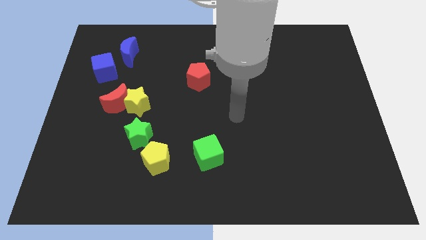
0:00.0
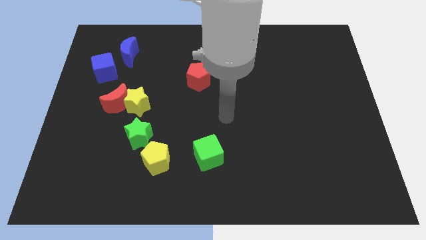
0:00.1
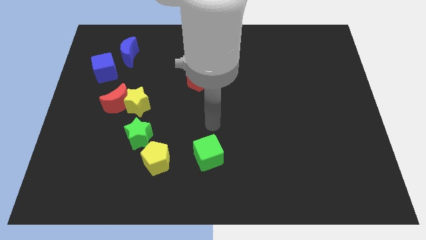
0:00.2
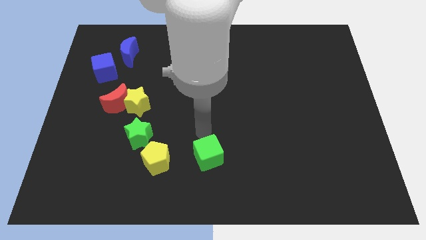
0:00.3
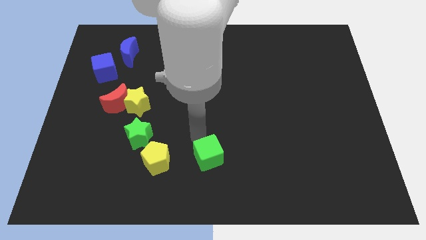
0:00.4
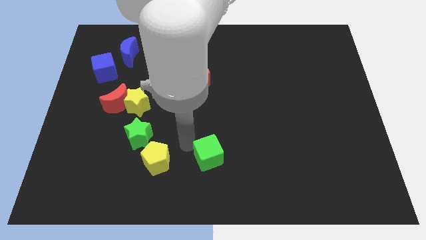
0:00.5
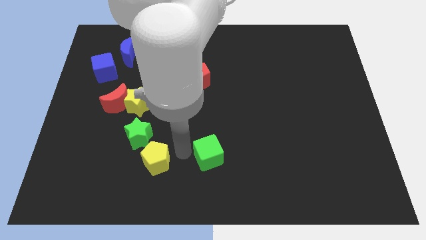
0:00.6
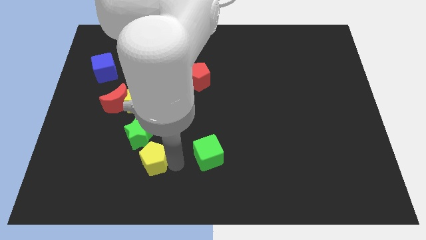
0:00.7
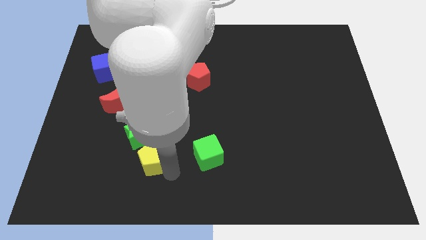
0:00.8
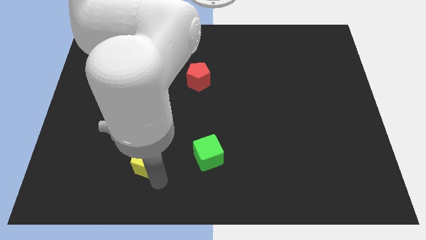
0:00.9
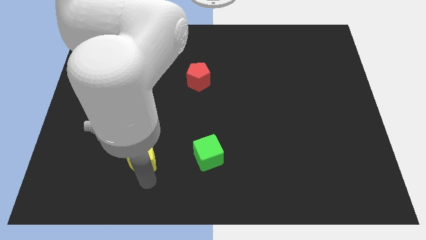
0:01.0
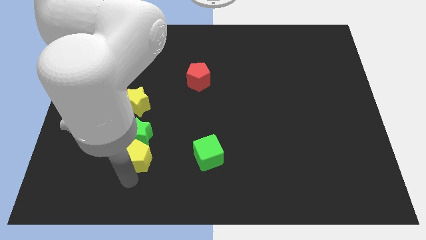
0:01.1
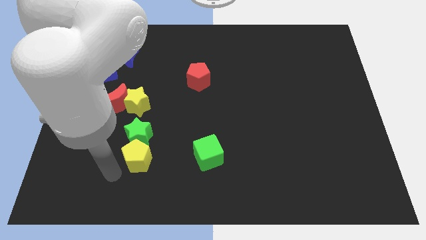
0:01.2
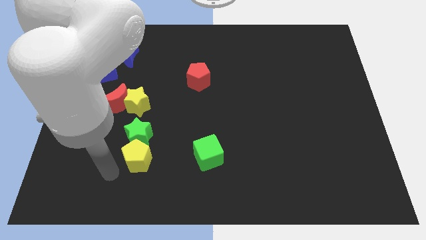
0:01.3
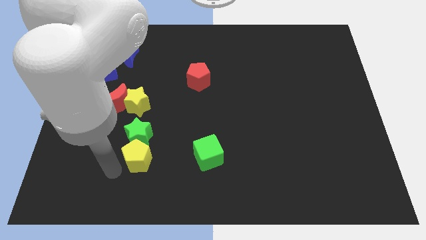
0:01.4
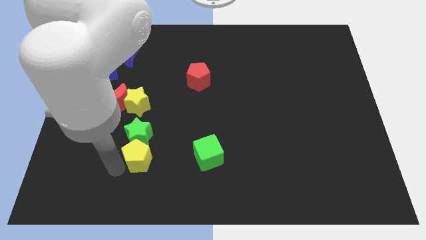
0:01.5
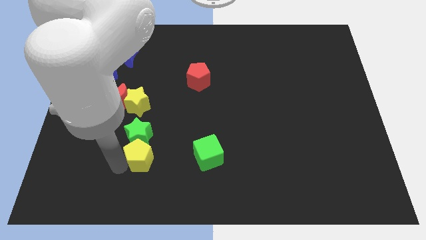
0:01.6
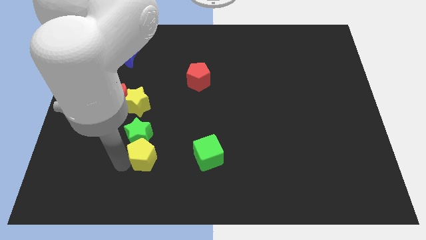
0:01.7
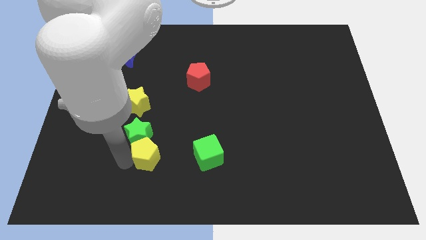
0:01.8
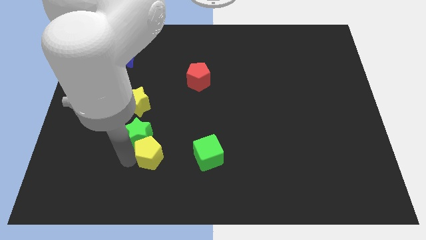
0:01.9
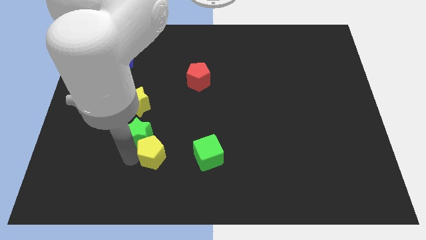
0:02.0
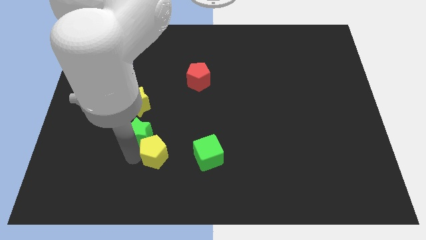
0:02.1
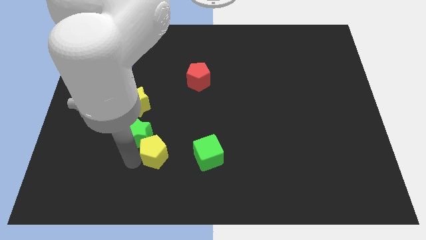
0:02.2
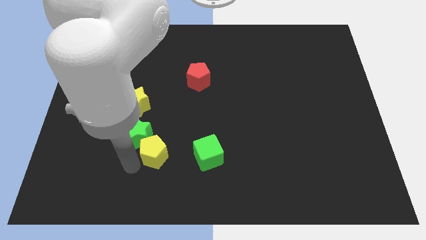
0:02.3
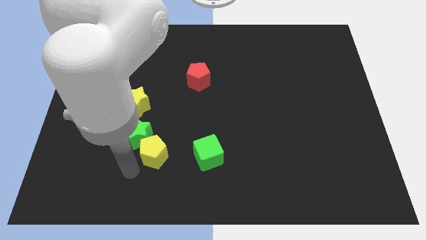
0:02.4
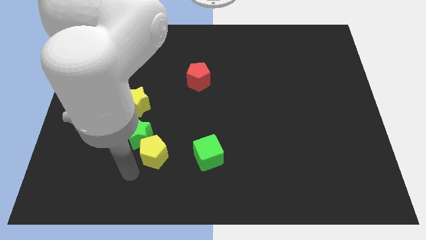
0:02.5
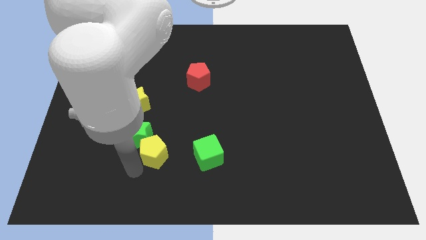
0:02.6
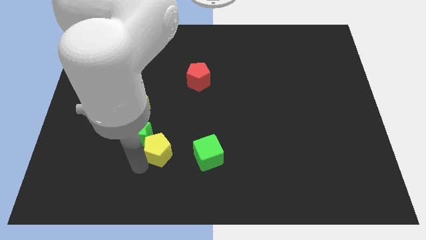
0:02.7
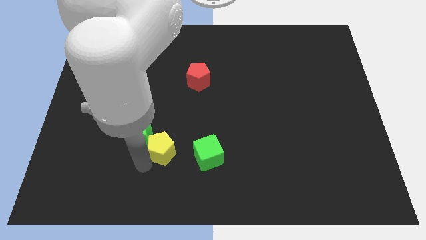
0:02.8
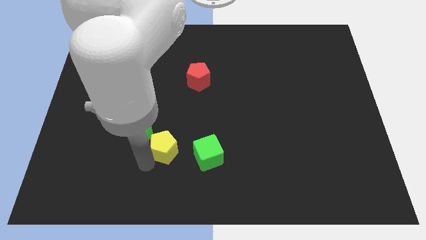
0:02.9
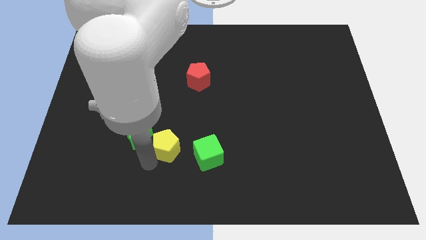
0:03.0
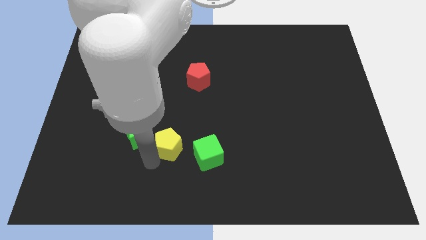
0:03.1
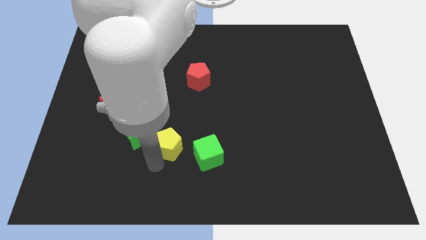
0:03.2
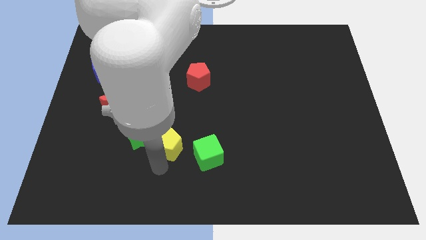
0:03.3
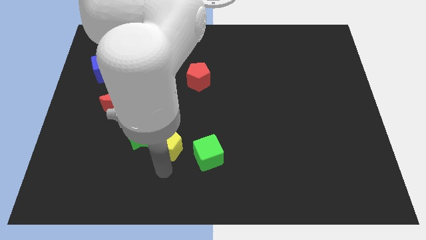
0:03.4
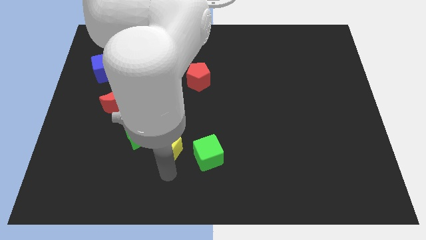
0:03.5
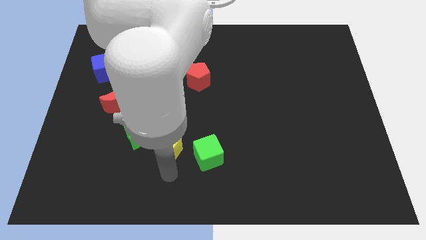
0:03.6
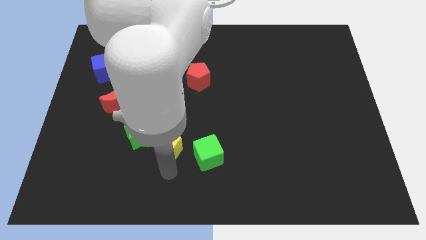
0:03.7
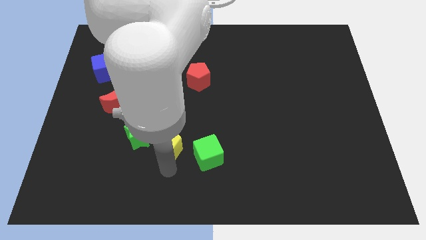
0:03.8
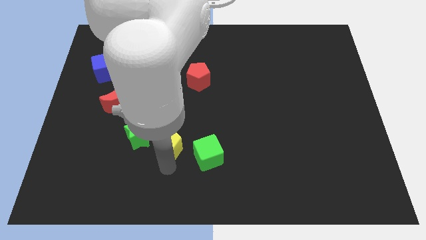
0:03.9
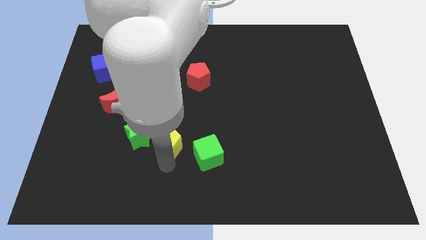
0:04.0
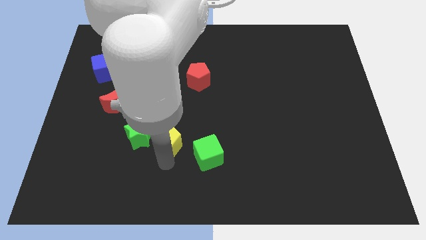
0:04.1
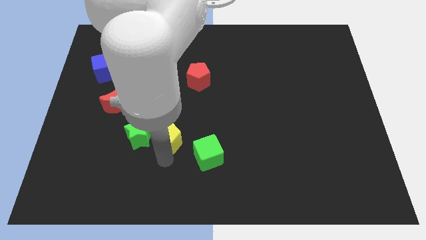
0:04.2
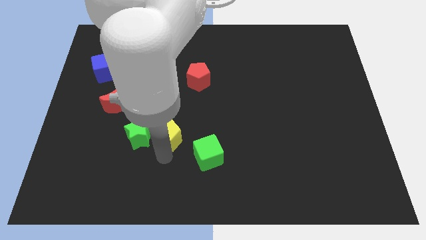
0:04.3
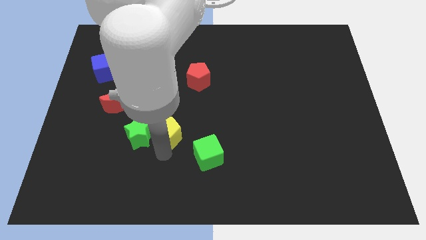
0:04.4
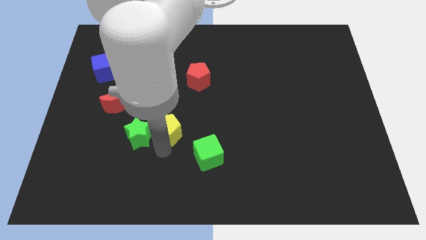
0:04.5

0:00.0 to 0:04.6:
slide the yellow pentagon up a little

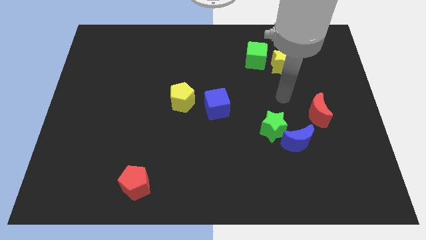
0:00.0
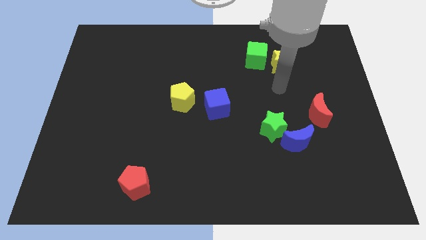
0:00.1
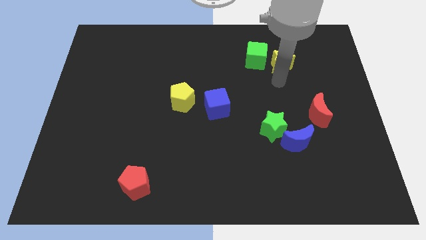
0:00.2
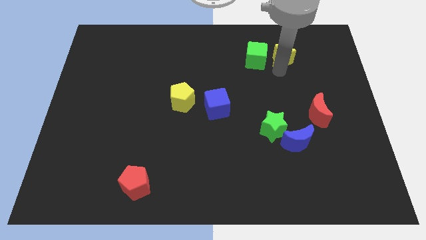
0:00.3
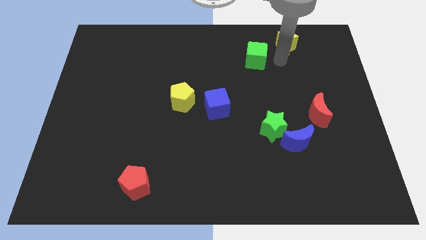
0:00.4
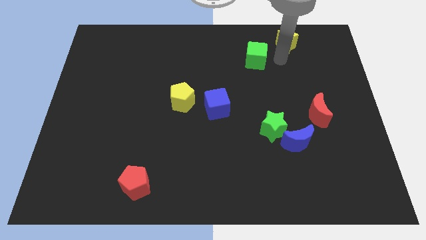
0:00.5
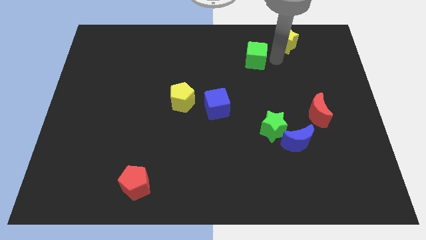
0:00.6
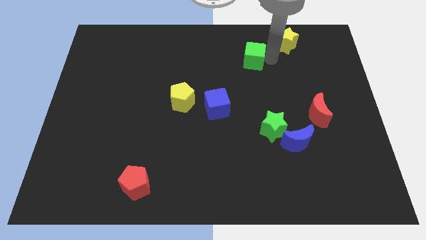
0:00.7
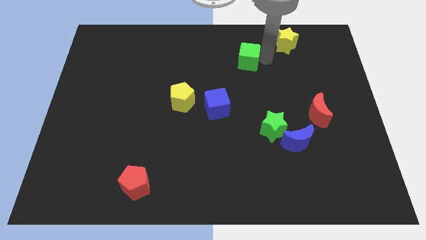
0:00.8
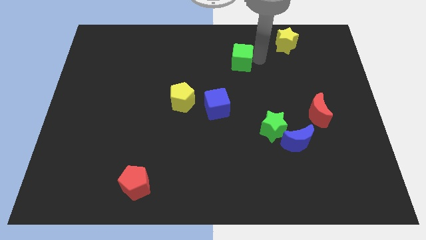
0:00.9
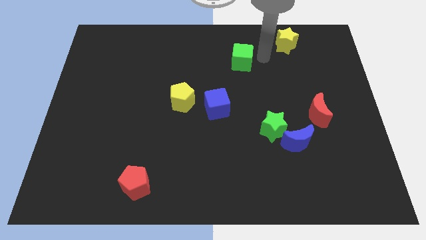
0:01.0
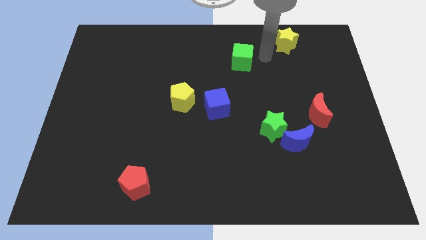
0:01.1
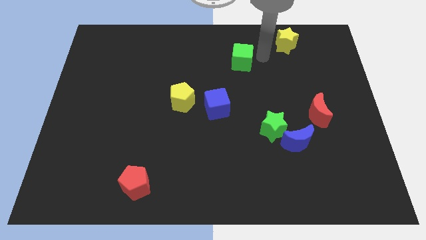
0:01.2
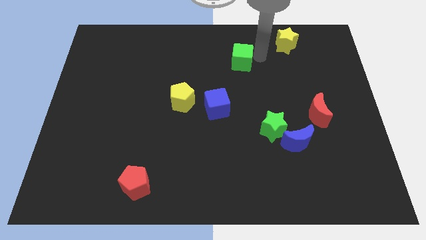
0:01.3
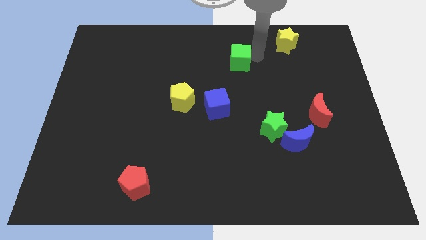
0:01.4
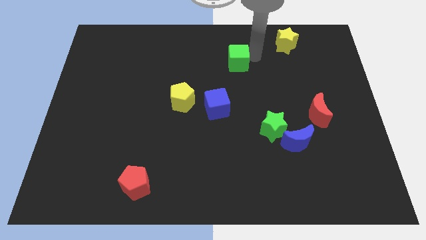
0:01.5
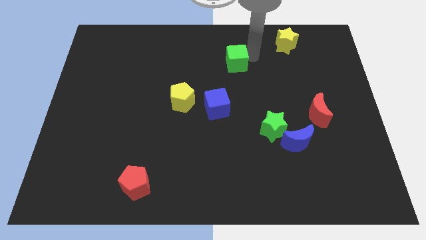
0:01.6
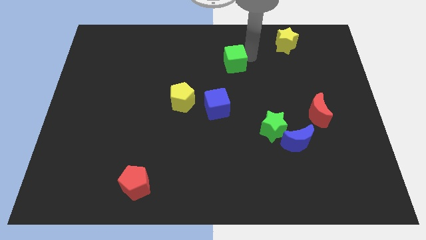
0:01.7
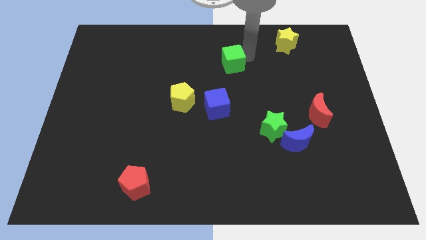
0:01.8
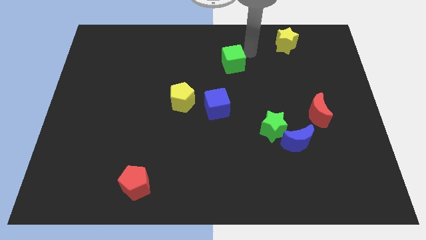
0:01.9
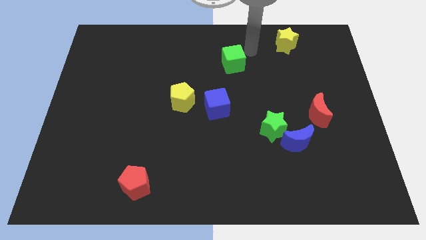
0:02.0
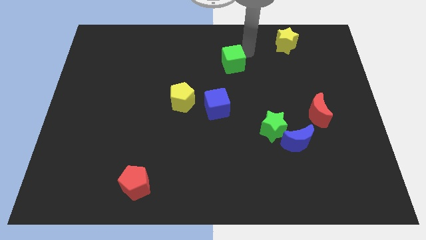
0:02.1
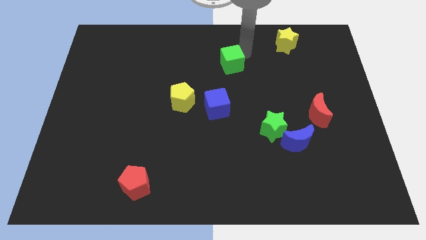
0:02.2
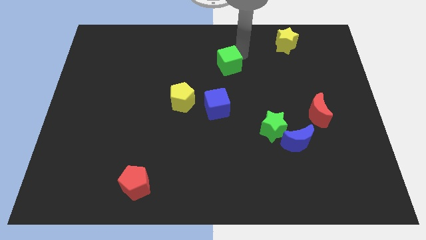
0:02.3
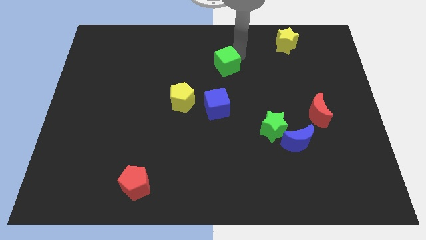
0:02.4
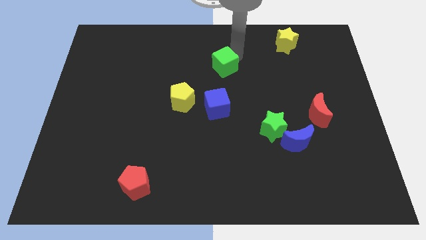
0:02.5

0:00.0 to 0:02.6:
slide the green cube downwards and then left slightly

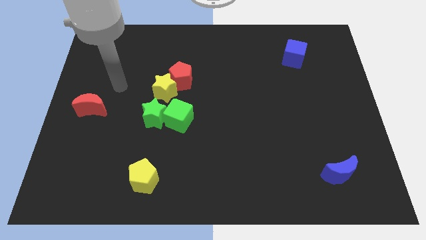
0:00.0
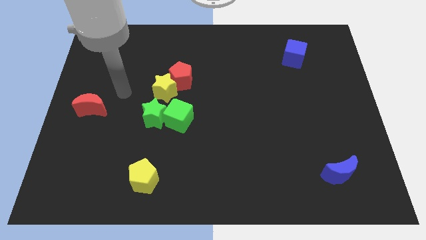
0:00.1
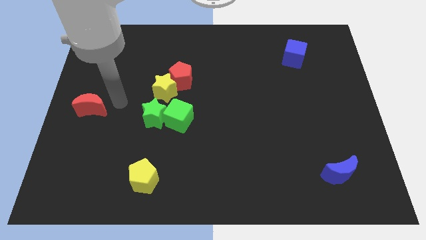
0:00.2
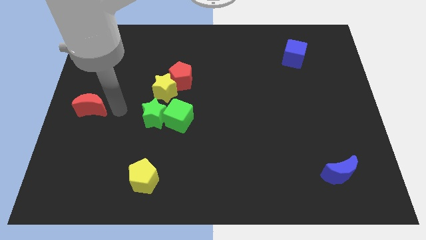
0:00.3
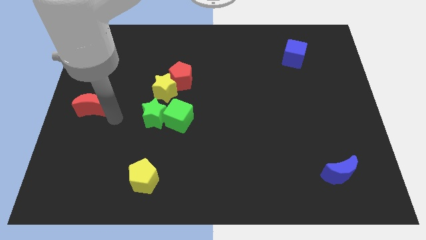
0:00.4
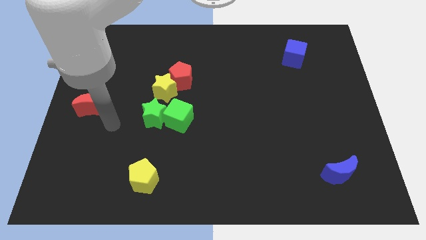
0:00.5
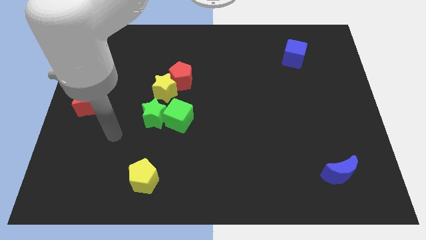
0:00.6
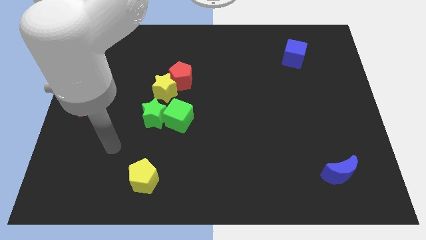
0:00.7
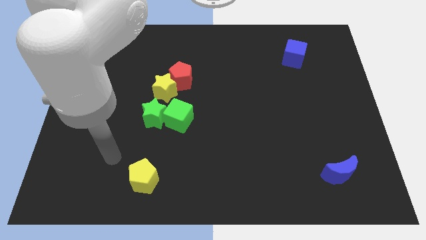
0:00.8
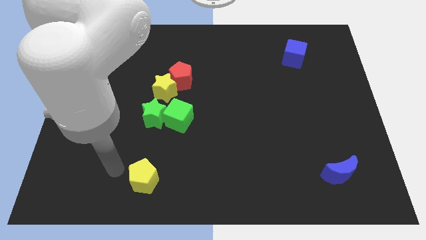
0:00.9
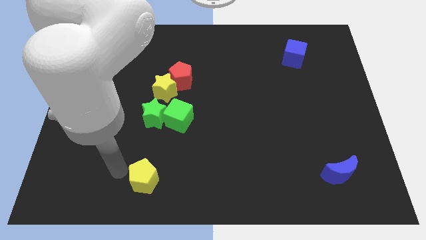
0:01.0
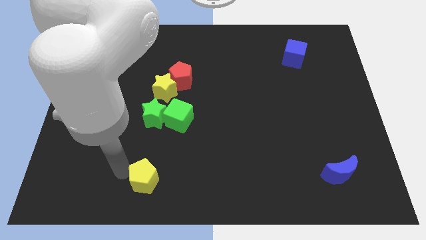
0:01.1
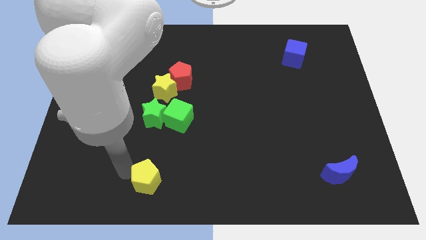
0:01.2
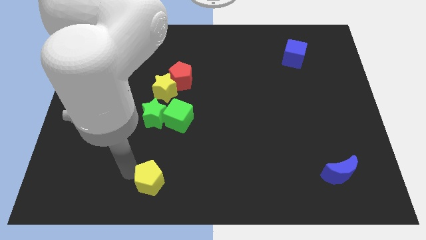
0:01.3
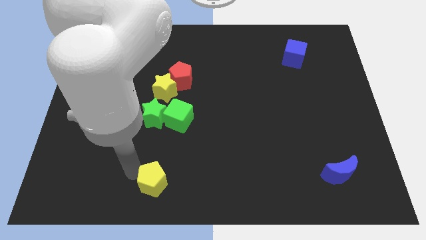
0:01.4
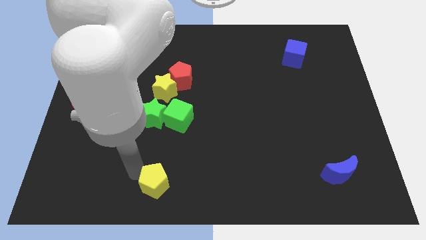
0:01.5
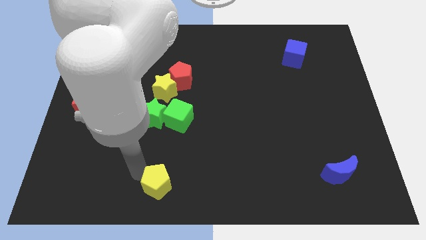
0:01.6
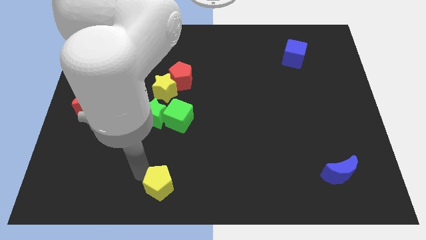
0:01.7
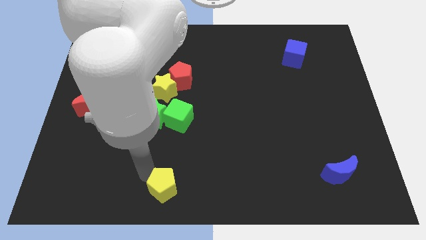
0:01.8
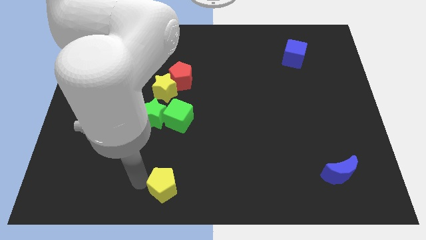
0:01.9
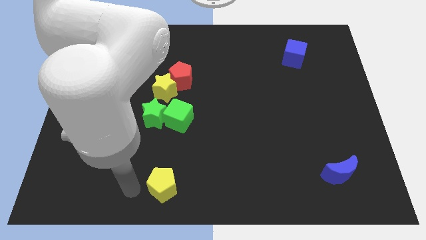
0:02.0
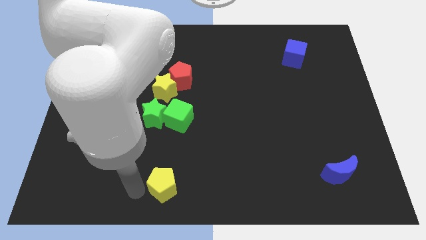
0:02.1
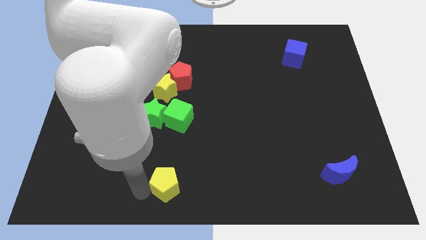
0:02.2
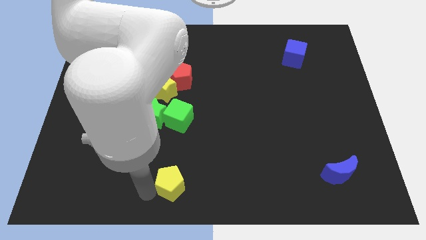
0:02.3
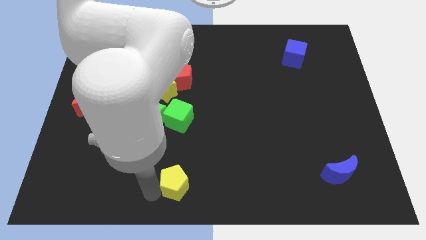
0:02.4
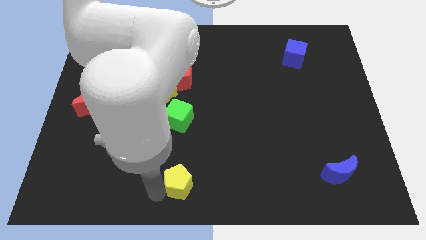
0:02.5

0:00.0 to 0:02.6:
move the yellow pentagon a little bit right
